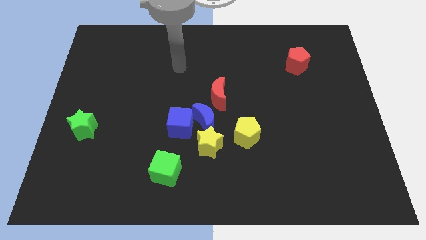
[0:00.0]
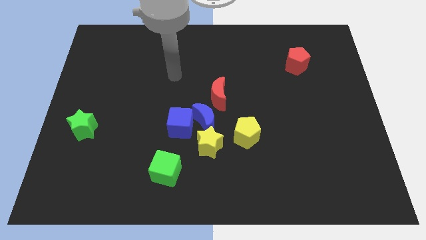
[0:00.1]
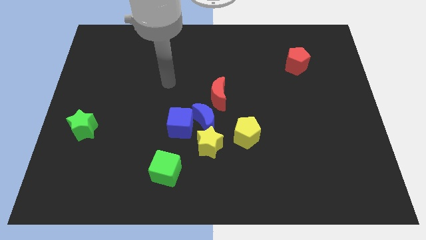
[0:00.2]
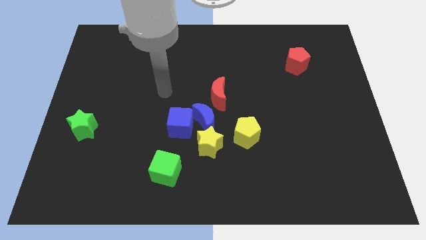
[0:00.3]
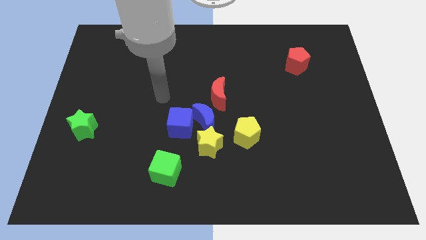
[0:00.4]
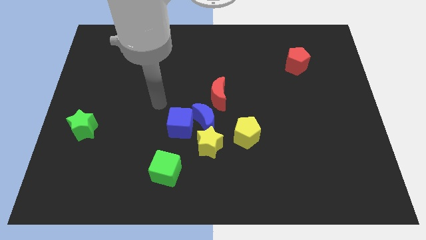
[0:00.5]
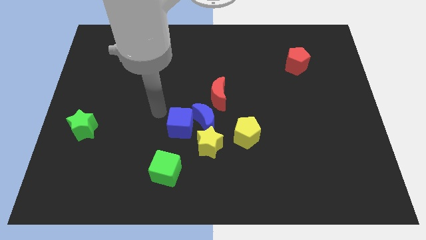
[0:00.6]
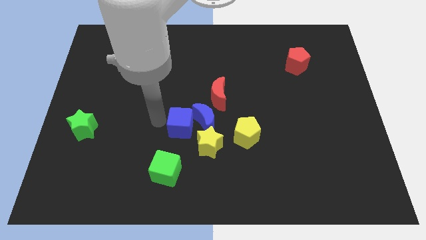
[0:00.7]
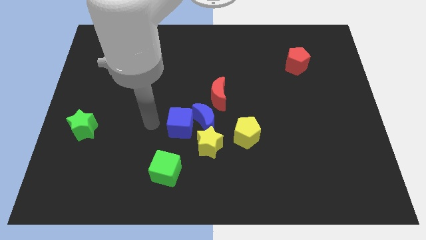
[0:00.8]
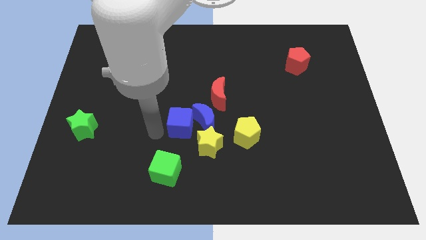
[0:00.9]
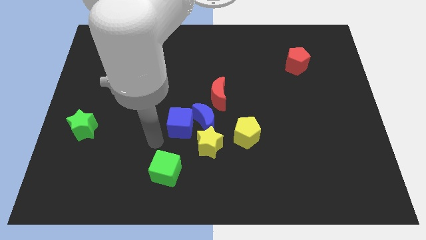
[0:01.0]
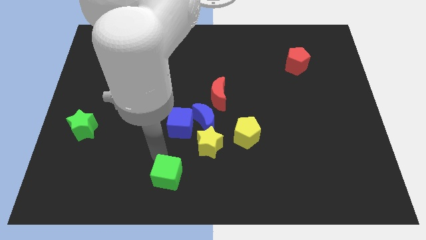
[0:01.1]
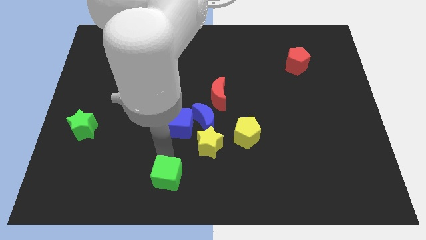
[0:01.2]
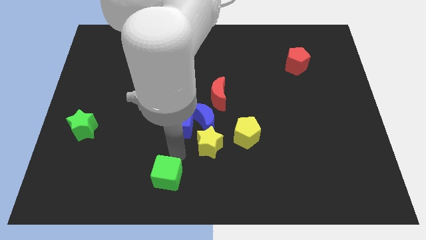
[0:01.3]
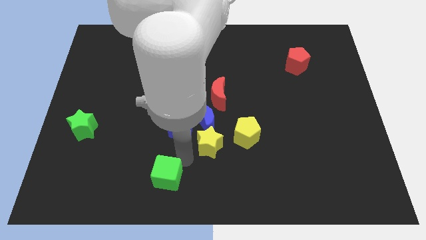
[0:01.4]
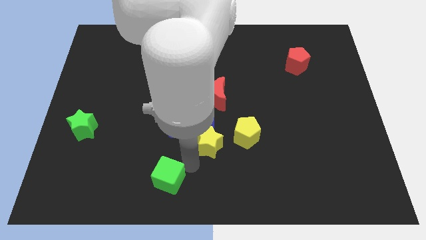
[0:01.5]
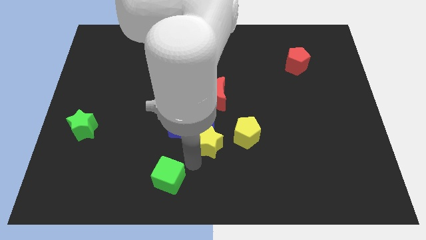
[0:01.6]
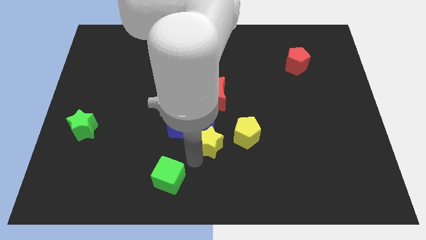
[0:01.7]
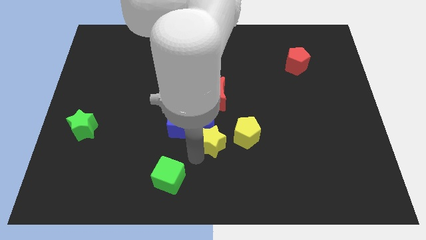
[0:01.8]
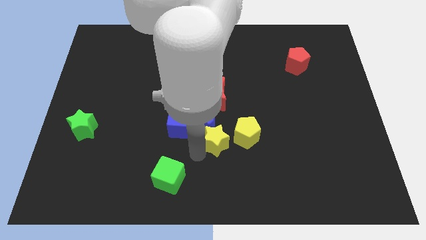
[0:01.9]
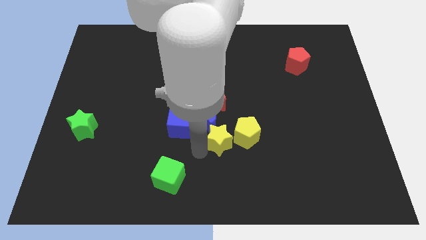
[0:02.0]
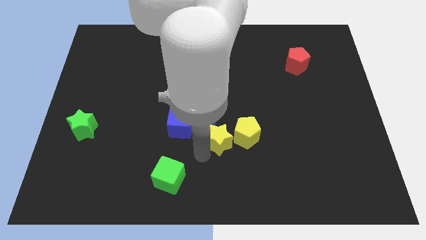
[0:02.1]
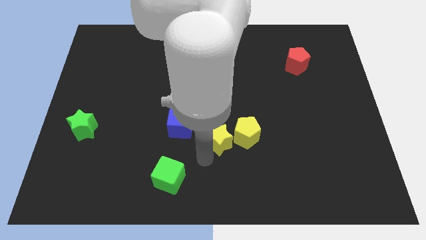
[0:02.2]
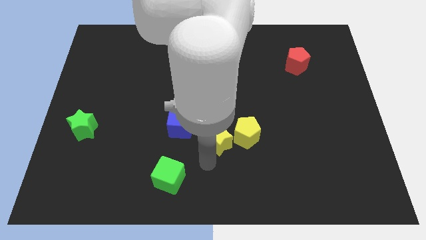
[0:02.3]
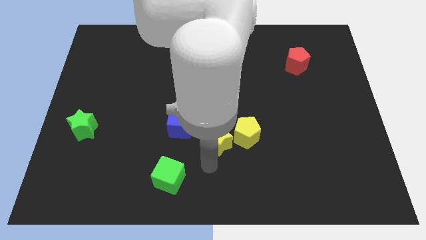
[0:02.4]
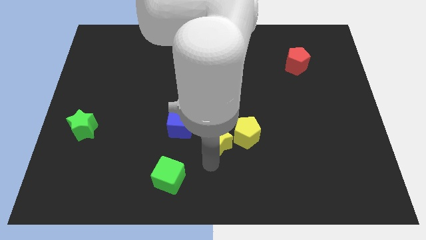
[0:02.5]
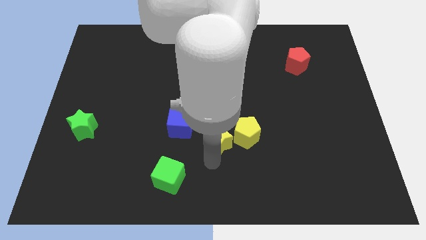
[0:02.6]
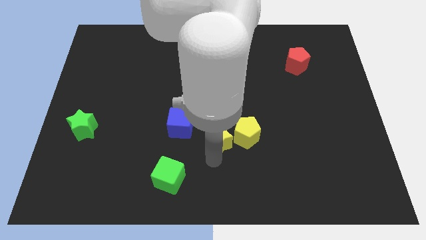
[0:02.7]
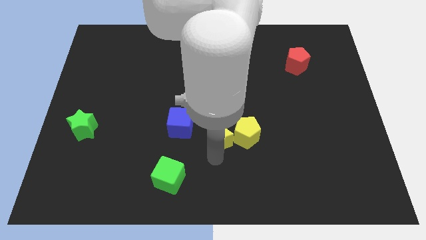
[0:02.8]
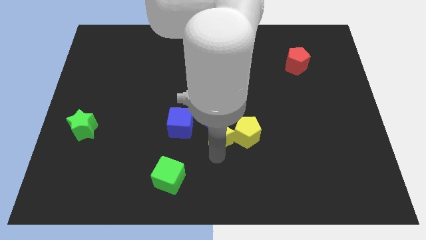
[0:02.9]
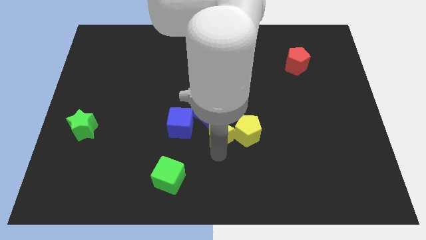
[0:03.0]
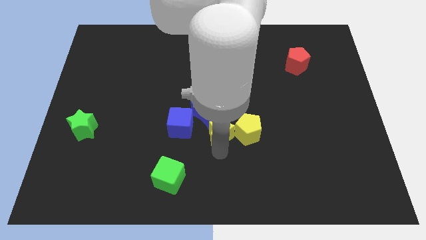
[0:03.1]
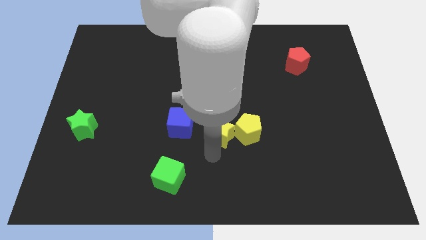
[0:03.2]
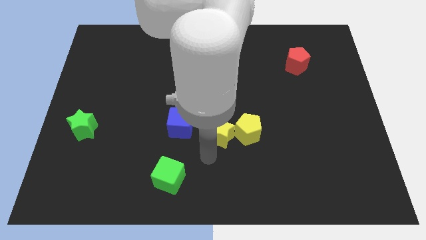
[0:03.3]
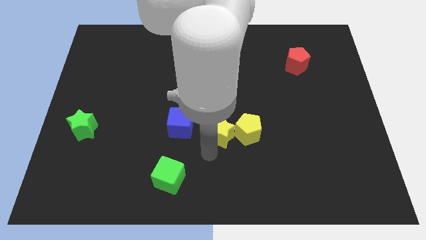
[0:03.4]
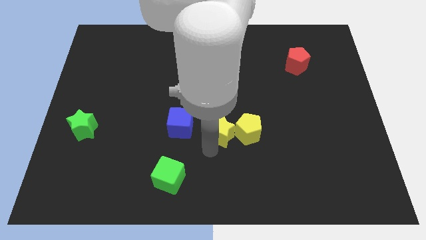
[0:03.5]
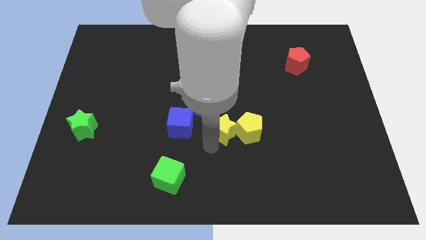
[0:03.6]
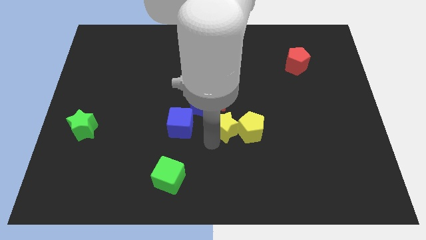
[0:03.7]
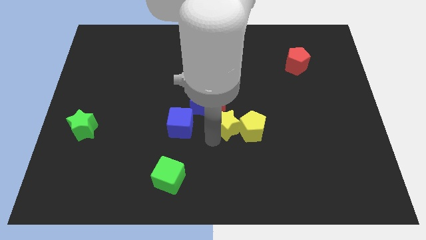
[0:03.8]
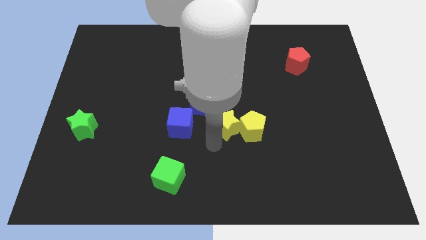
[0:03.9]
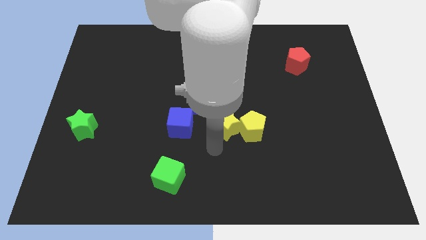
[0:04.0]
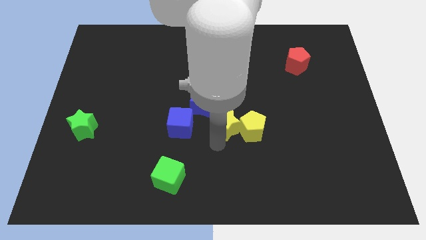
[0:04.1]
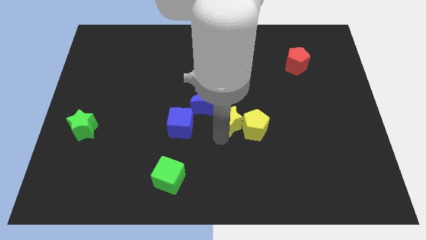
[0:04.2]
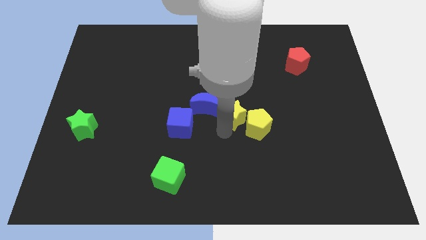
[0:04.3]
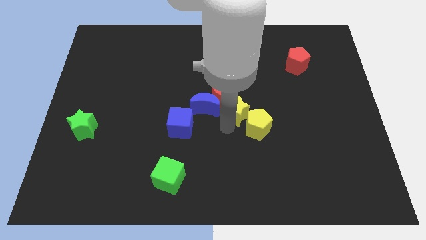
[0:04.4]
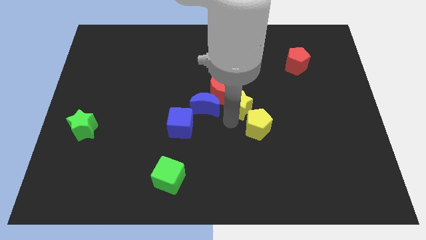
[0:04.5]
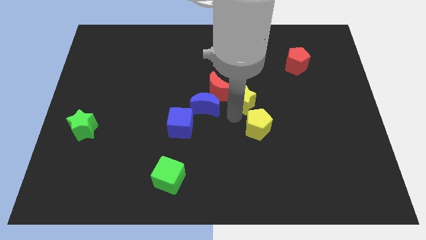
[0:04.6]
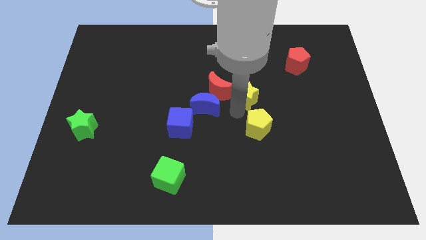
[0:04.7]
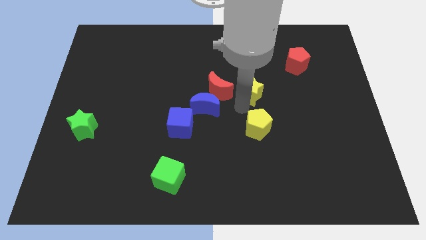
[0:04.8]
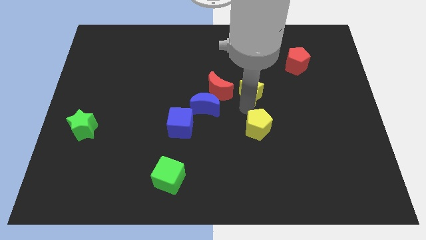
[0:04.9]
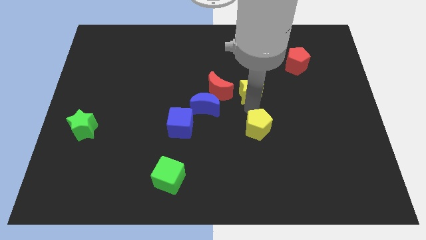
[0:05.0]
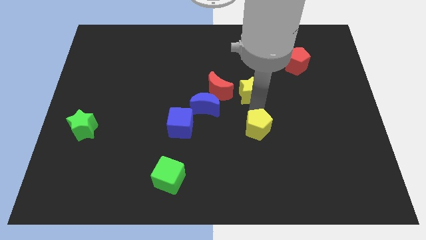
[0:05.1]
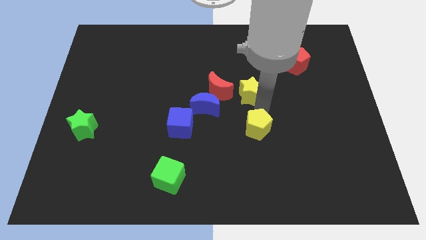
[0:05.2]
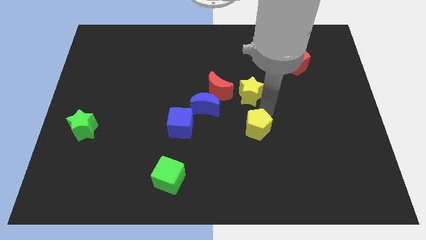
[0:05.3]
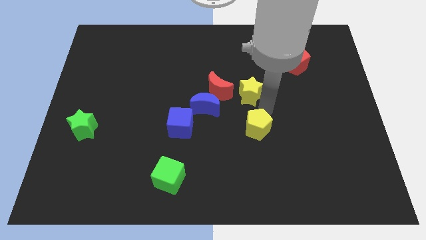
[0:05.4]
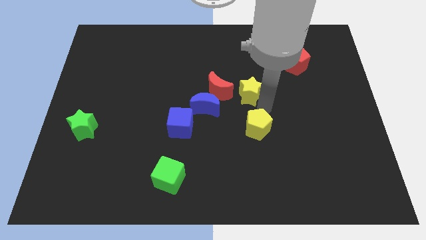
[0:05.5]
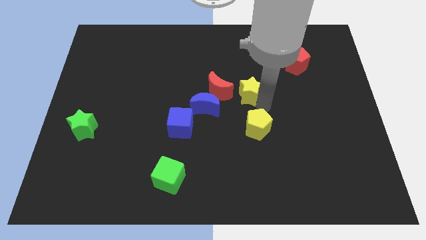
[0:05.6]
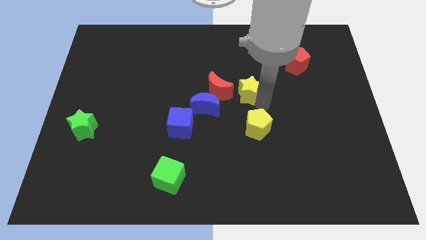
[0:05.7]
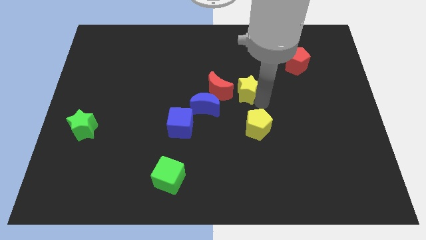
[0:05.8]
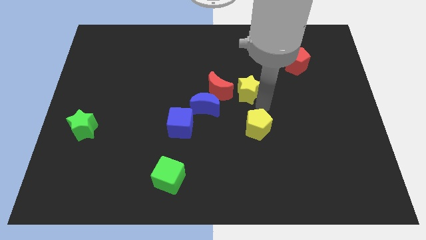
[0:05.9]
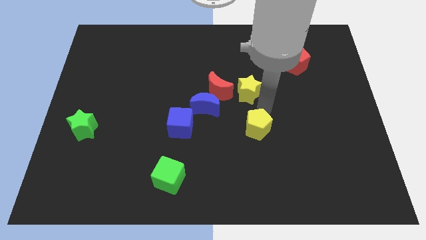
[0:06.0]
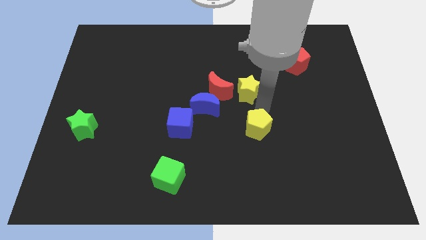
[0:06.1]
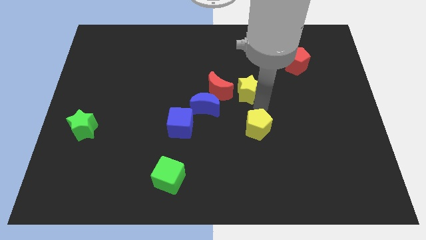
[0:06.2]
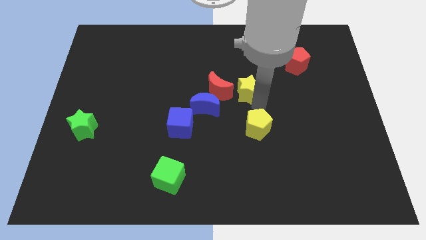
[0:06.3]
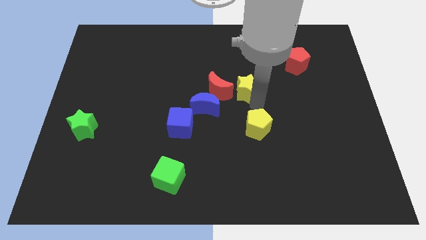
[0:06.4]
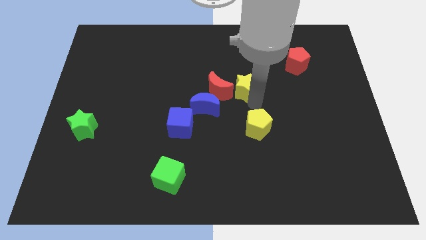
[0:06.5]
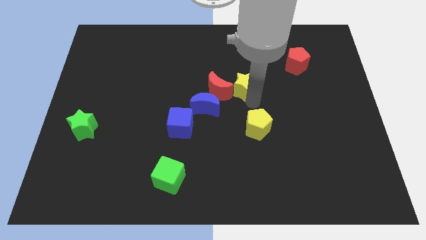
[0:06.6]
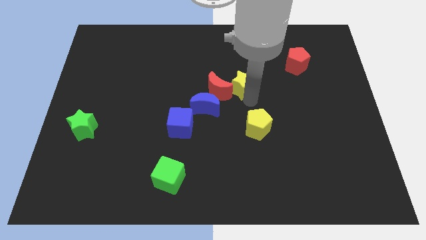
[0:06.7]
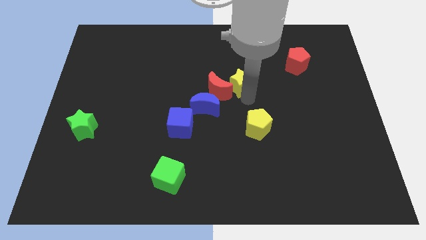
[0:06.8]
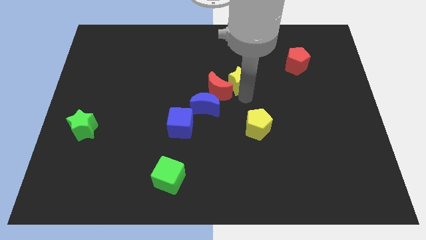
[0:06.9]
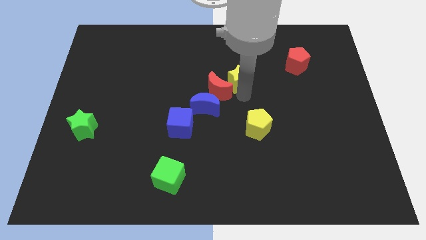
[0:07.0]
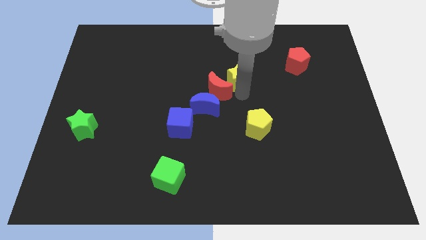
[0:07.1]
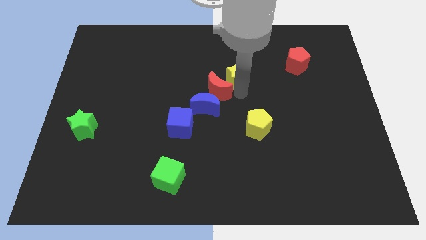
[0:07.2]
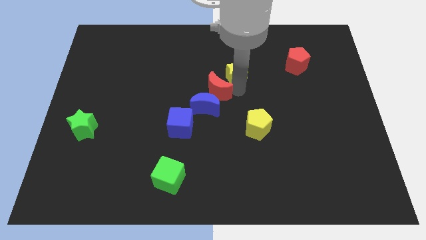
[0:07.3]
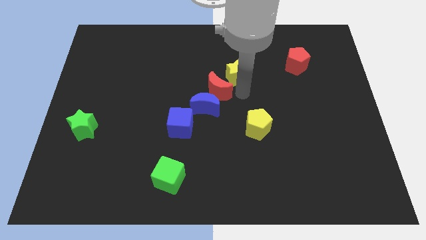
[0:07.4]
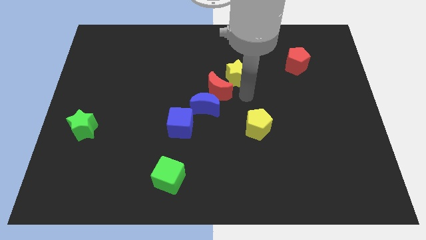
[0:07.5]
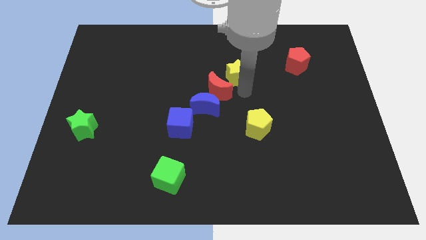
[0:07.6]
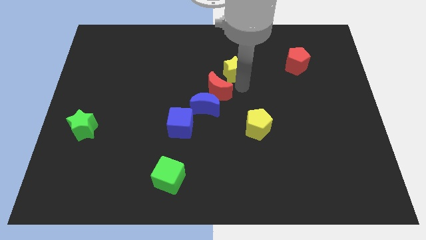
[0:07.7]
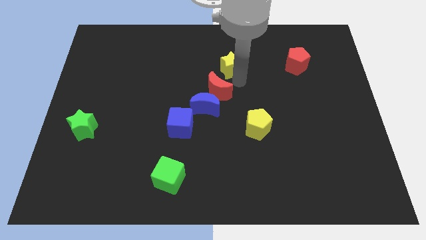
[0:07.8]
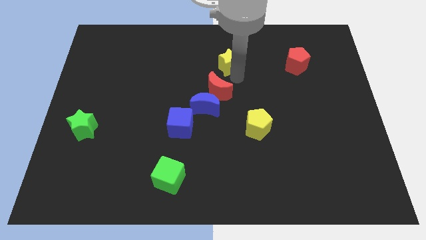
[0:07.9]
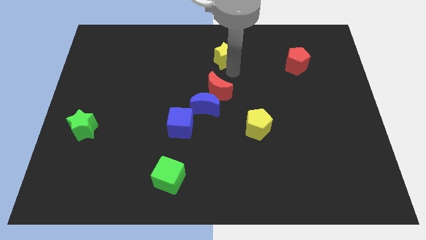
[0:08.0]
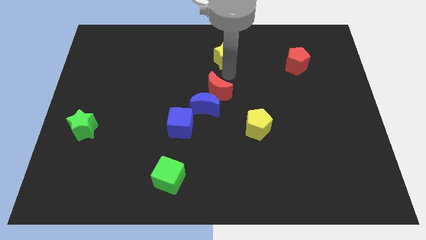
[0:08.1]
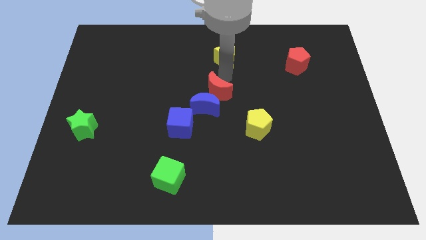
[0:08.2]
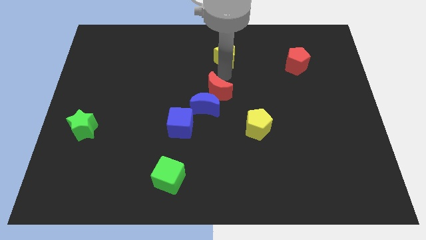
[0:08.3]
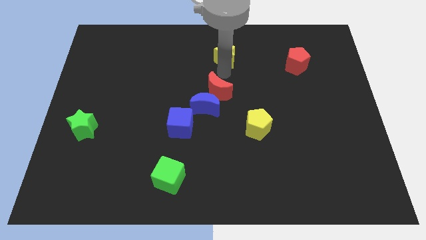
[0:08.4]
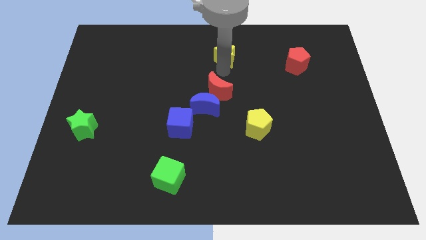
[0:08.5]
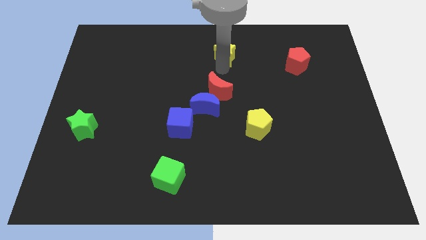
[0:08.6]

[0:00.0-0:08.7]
put the yellow star to the top side
